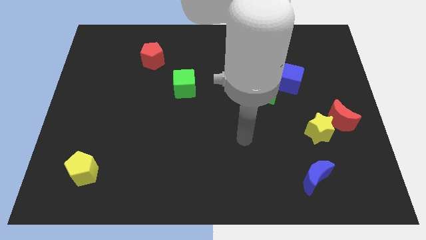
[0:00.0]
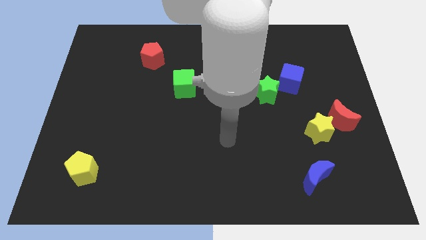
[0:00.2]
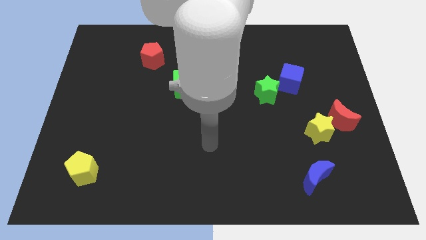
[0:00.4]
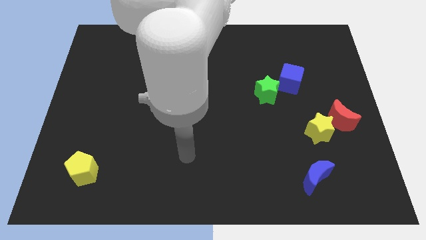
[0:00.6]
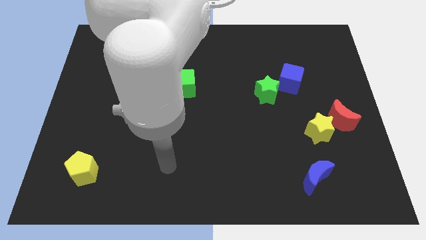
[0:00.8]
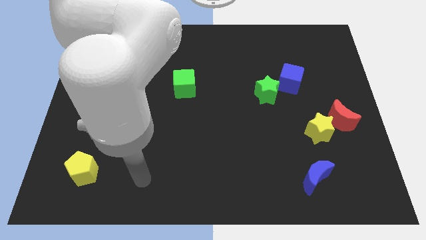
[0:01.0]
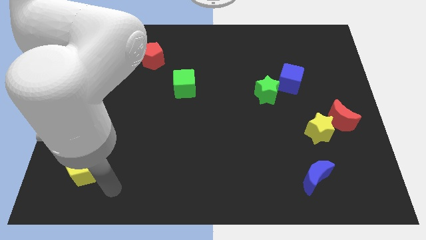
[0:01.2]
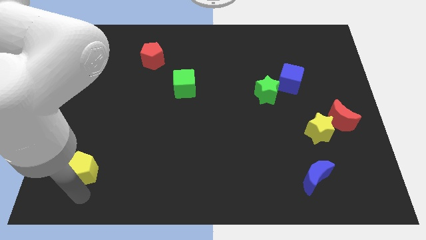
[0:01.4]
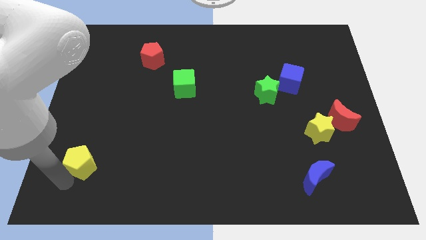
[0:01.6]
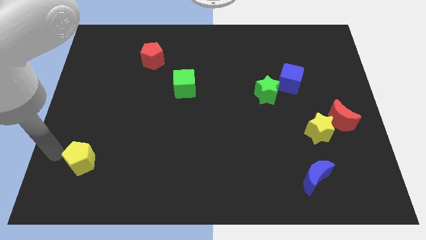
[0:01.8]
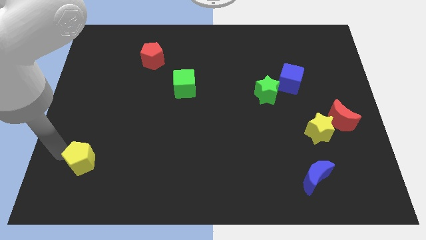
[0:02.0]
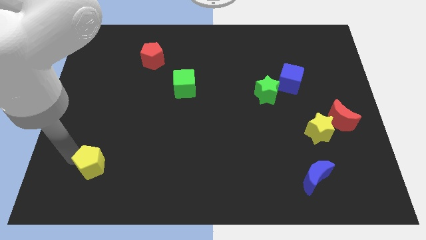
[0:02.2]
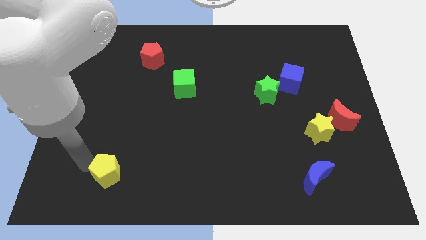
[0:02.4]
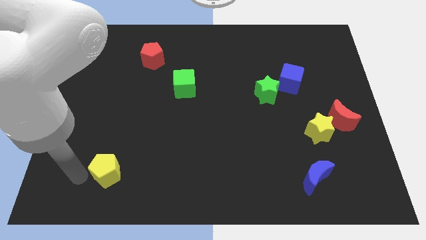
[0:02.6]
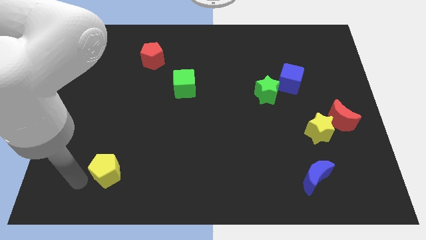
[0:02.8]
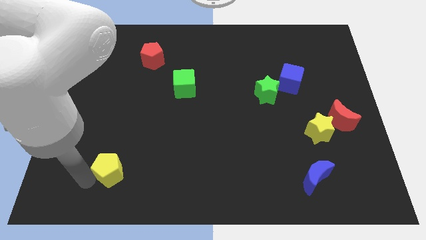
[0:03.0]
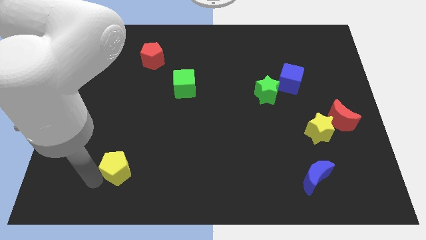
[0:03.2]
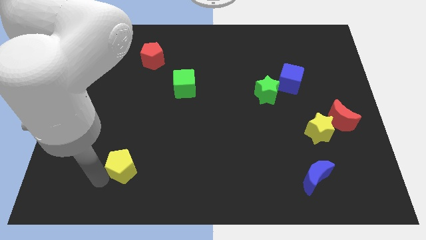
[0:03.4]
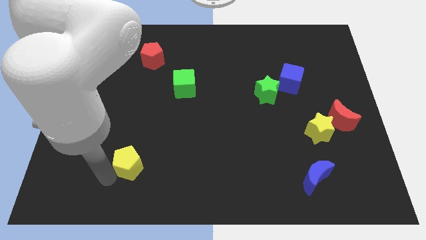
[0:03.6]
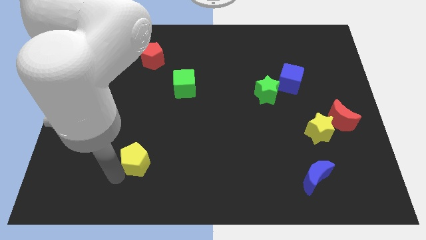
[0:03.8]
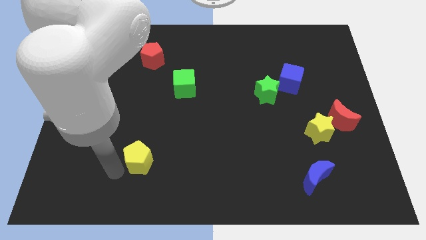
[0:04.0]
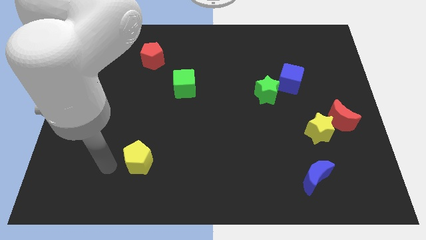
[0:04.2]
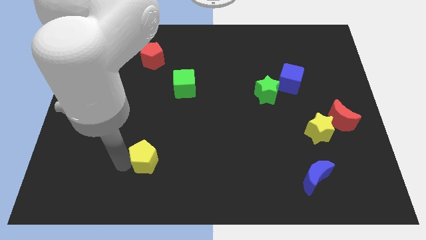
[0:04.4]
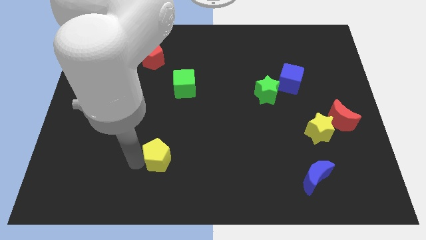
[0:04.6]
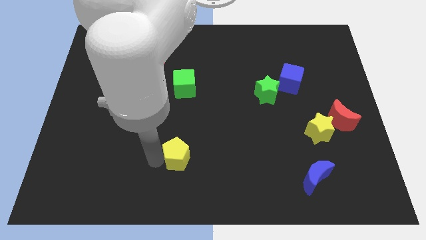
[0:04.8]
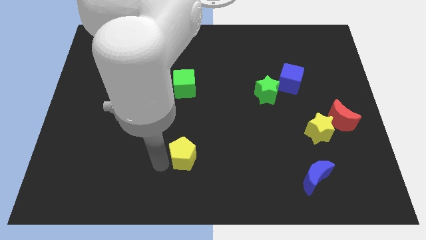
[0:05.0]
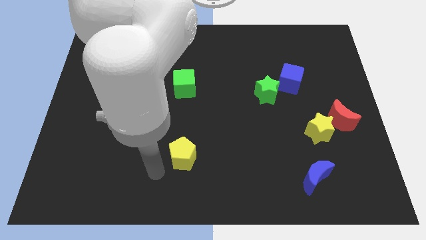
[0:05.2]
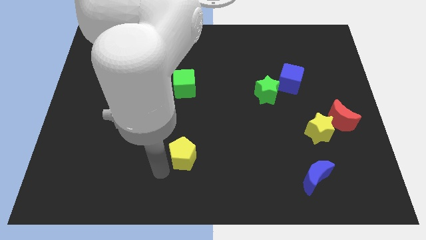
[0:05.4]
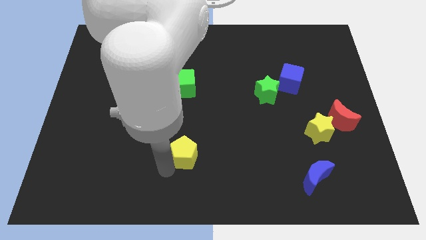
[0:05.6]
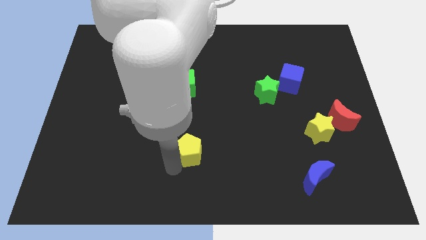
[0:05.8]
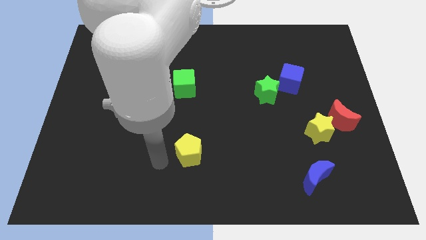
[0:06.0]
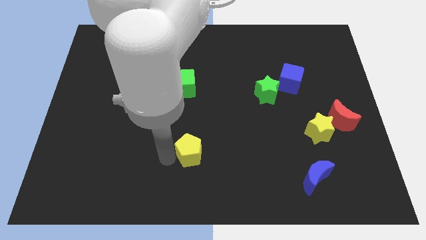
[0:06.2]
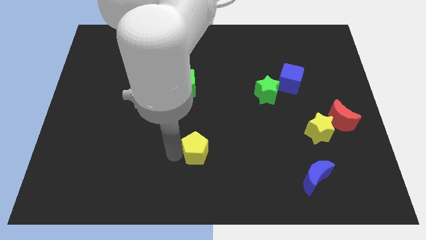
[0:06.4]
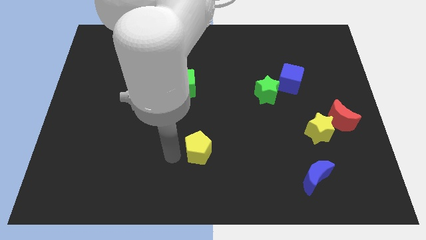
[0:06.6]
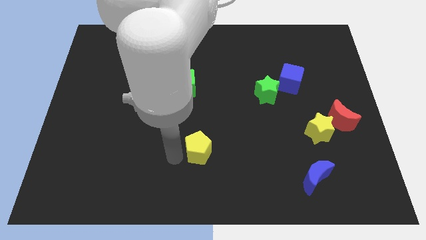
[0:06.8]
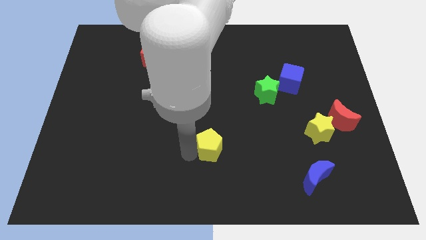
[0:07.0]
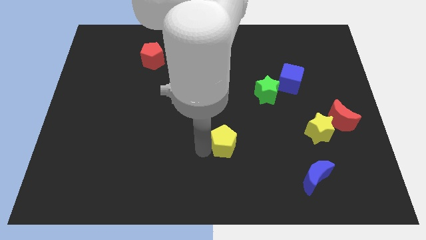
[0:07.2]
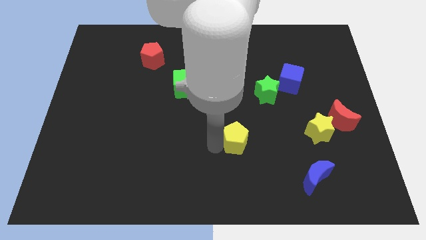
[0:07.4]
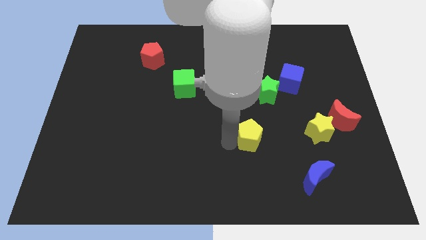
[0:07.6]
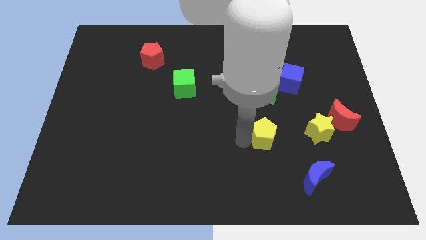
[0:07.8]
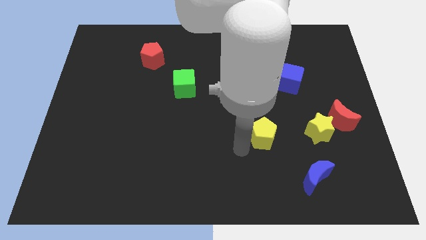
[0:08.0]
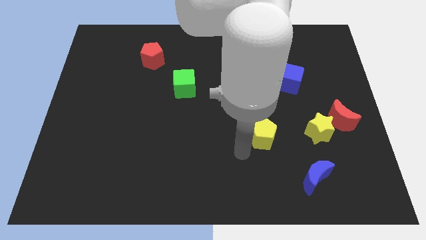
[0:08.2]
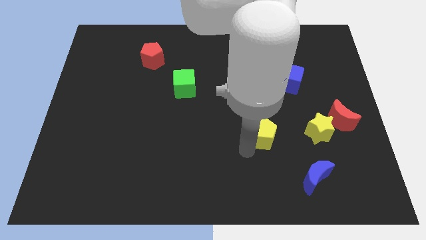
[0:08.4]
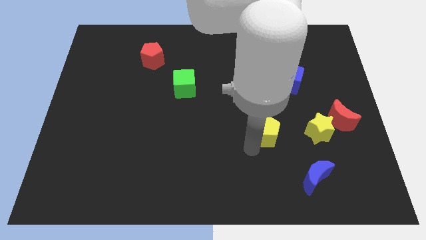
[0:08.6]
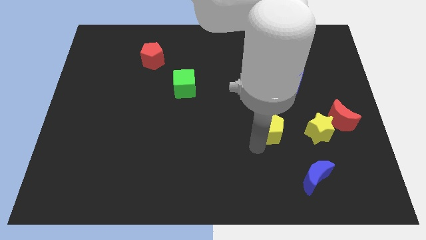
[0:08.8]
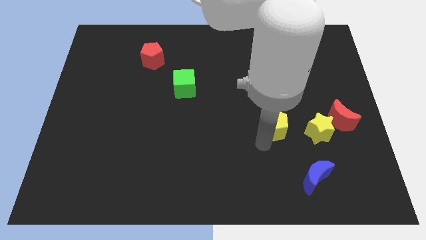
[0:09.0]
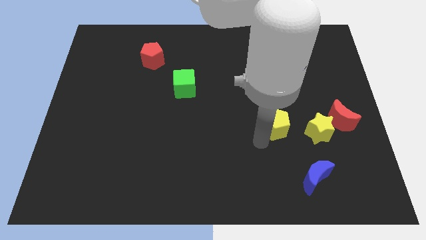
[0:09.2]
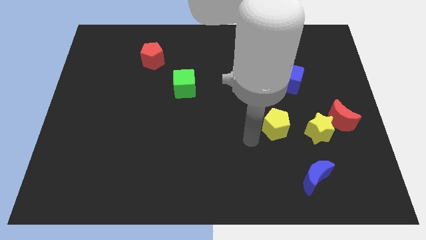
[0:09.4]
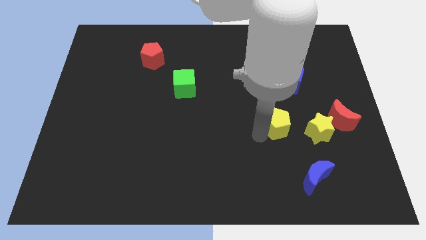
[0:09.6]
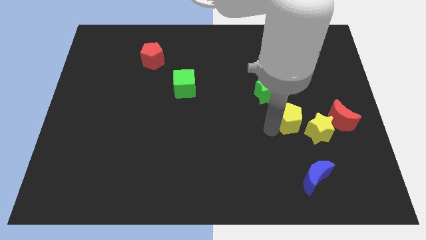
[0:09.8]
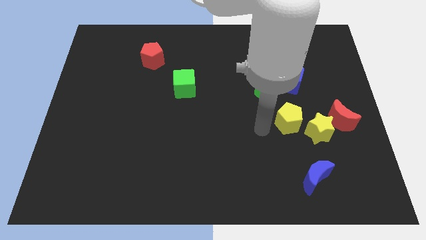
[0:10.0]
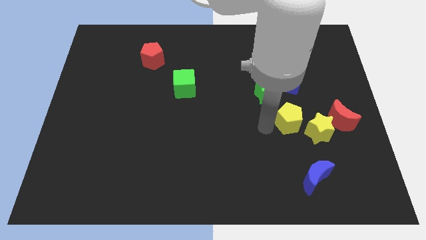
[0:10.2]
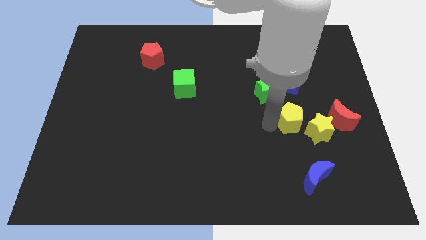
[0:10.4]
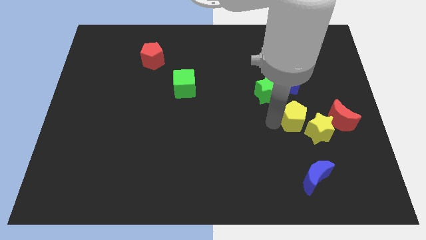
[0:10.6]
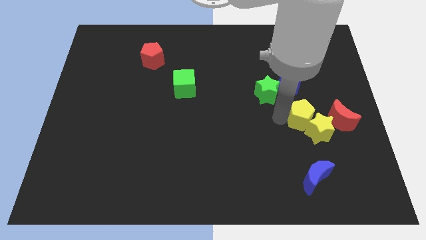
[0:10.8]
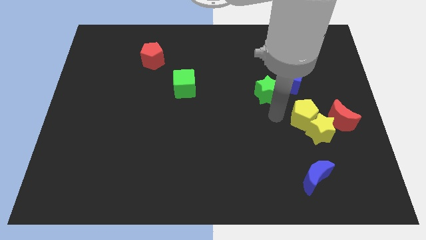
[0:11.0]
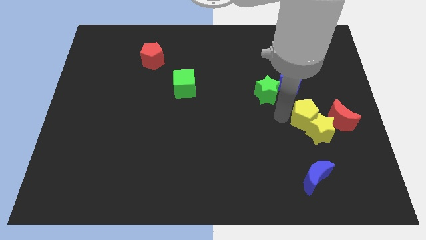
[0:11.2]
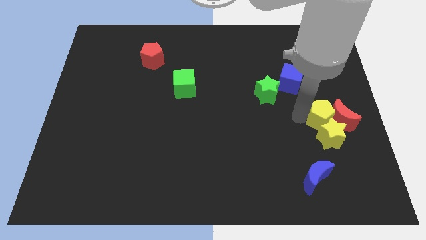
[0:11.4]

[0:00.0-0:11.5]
move the yellow pentagon to the red moon

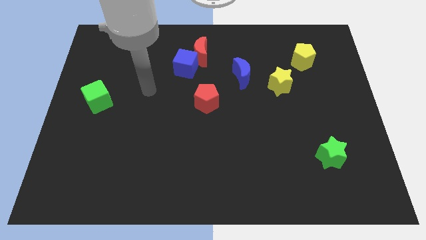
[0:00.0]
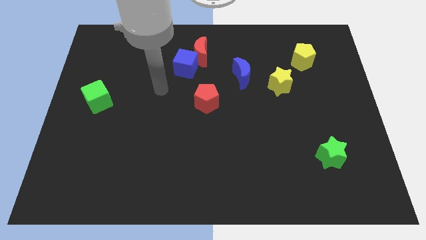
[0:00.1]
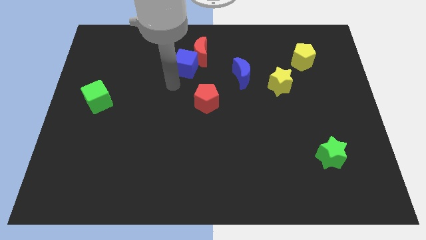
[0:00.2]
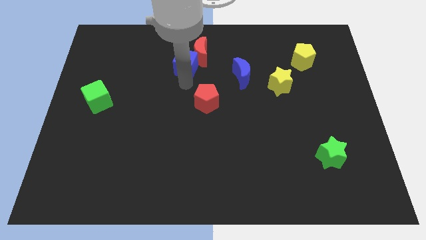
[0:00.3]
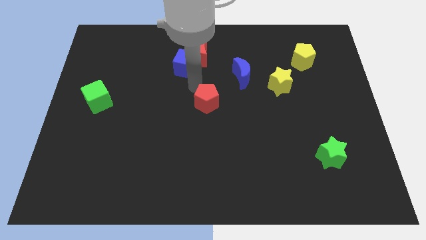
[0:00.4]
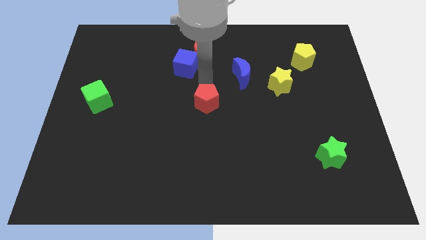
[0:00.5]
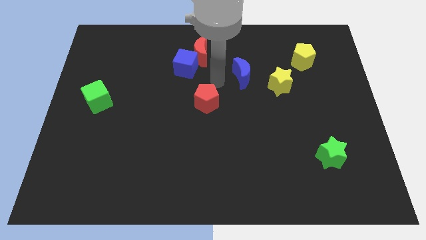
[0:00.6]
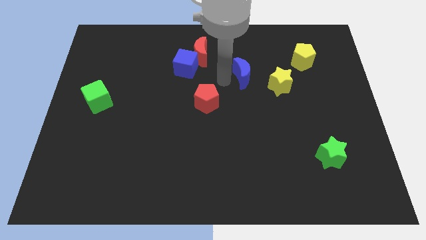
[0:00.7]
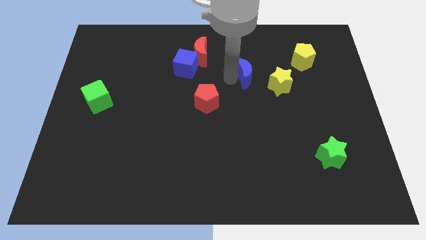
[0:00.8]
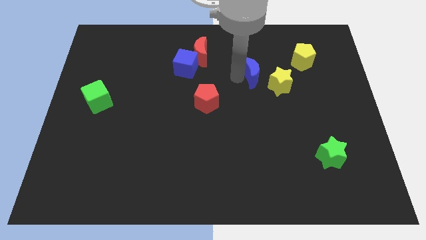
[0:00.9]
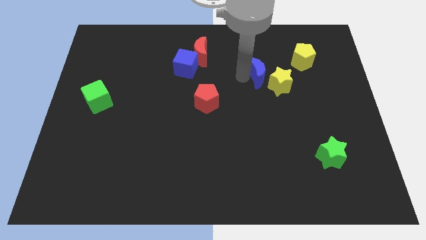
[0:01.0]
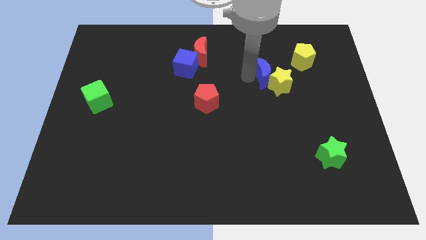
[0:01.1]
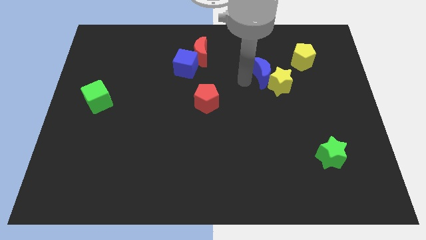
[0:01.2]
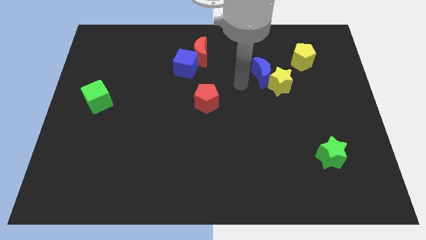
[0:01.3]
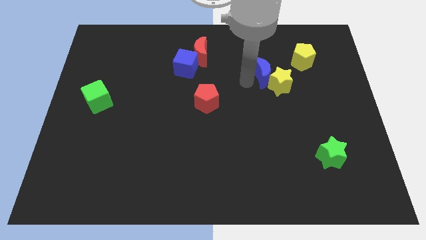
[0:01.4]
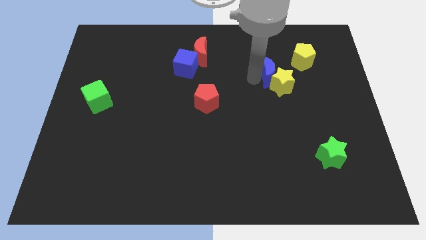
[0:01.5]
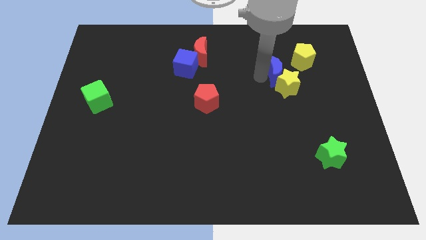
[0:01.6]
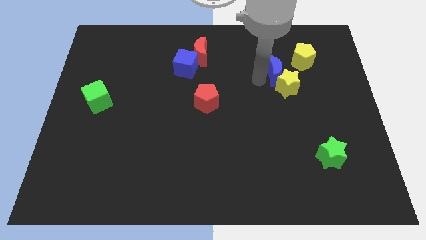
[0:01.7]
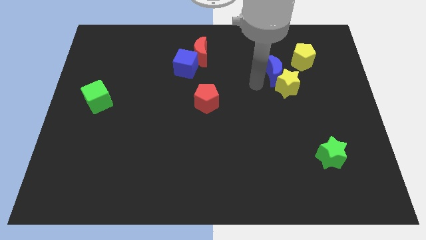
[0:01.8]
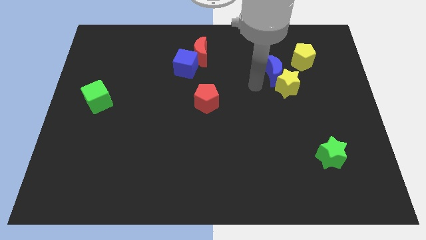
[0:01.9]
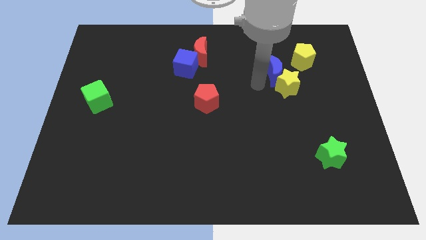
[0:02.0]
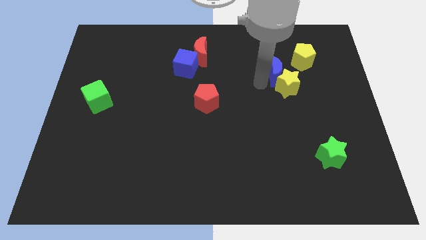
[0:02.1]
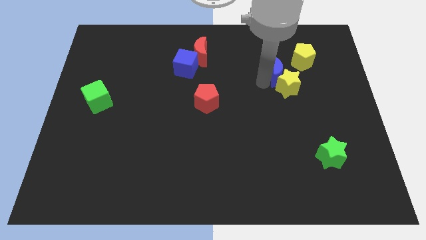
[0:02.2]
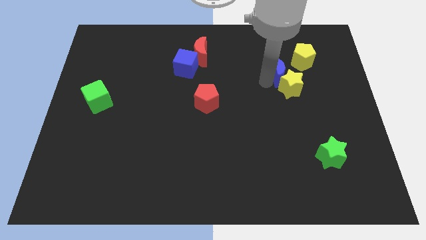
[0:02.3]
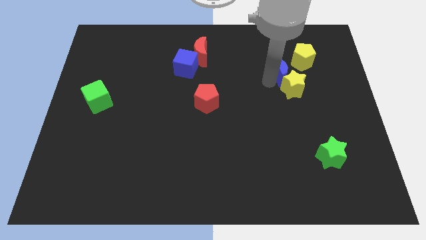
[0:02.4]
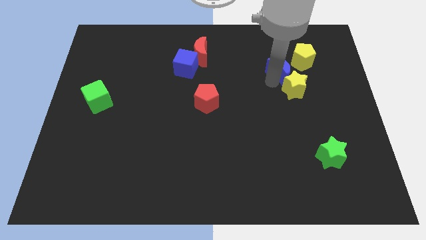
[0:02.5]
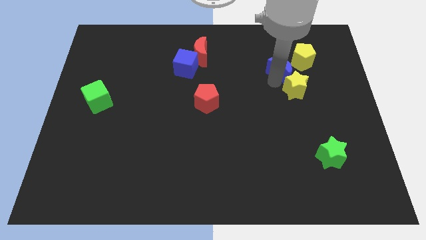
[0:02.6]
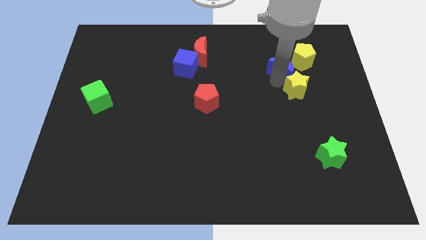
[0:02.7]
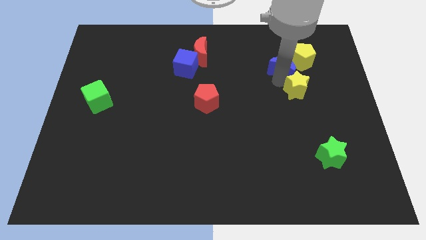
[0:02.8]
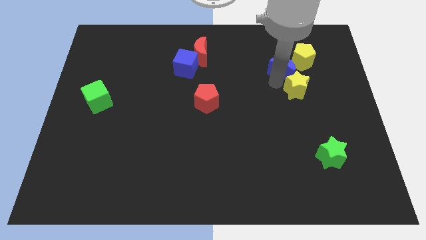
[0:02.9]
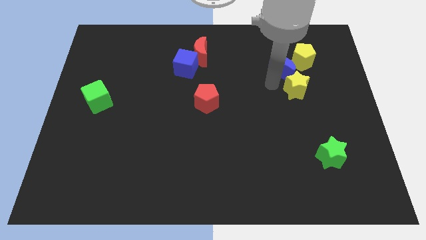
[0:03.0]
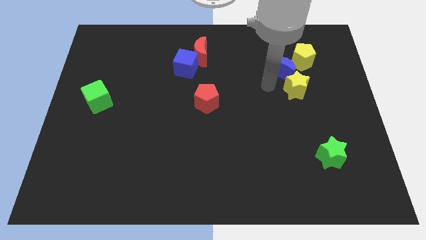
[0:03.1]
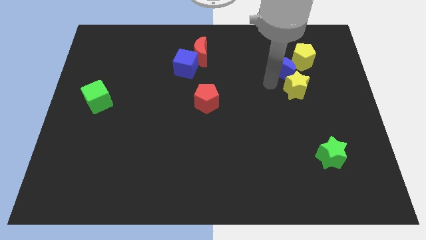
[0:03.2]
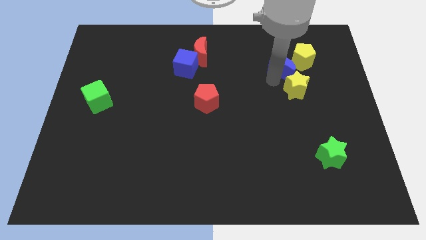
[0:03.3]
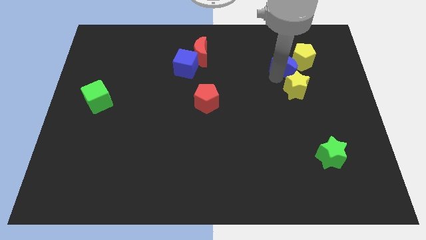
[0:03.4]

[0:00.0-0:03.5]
put the blue moon next to the yellow pentagon
